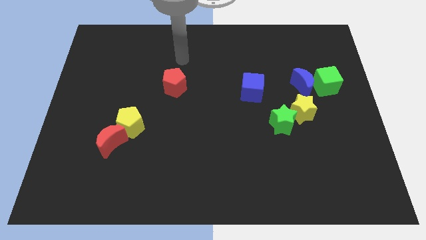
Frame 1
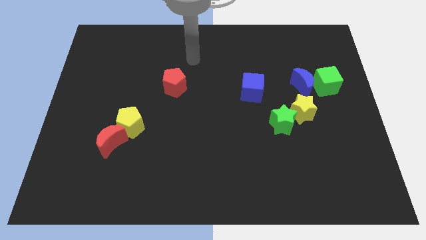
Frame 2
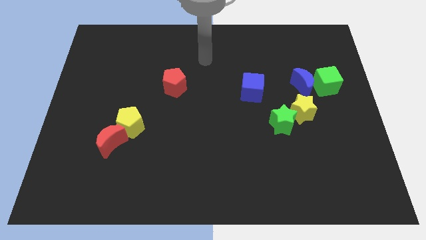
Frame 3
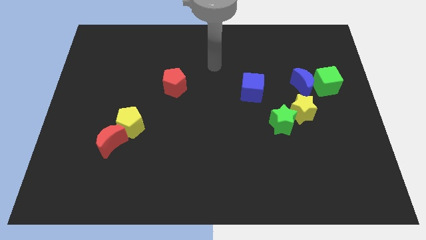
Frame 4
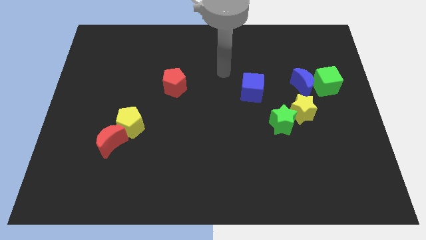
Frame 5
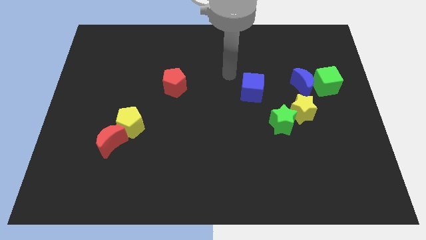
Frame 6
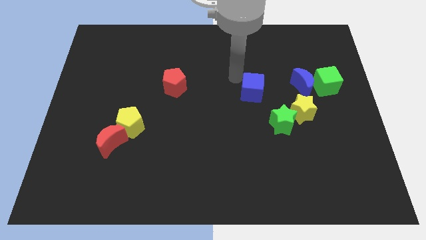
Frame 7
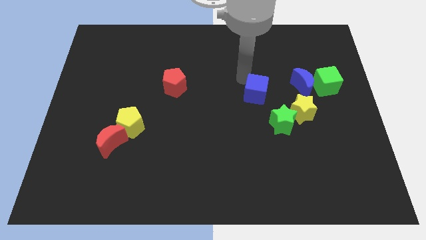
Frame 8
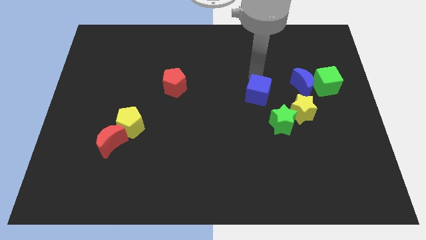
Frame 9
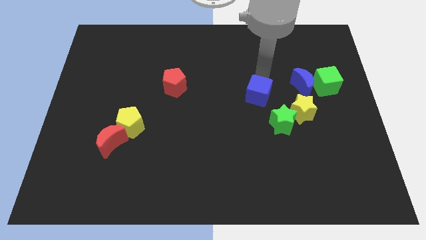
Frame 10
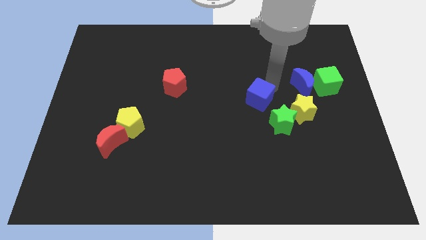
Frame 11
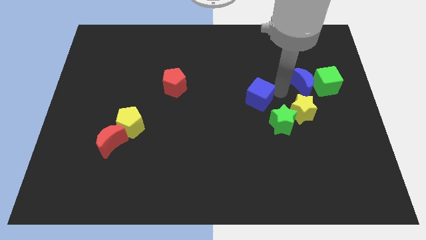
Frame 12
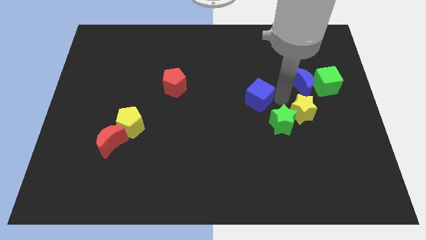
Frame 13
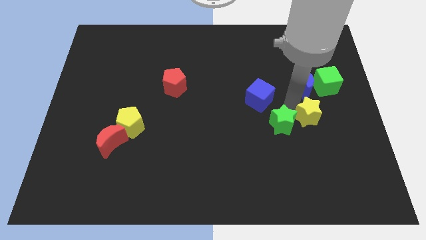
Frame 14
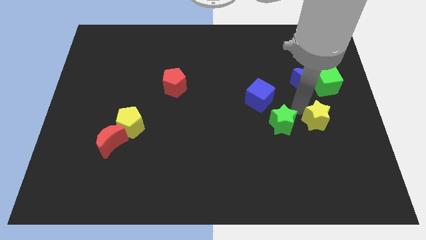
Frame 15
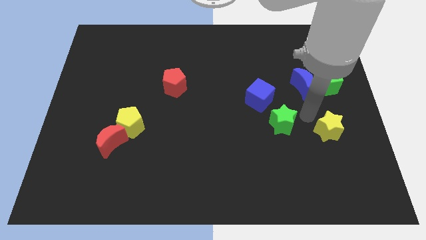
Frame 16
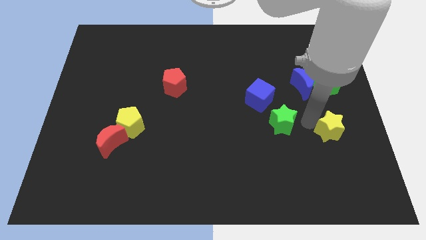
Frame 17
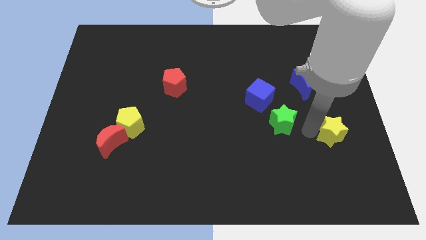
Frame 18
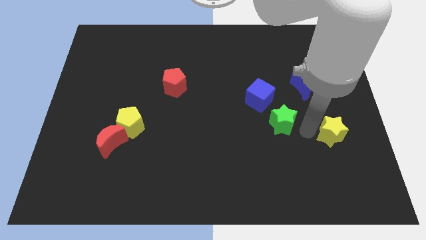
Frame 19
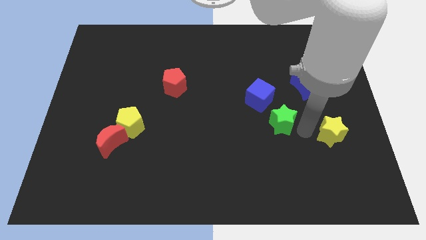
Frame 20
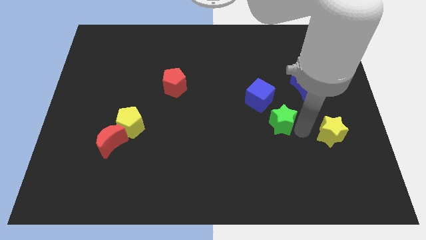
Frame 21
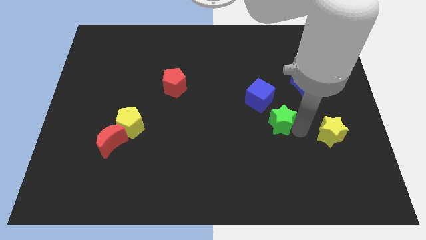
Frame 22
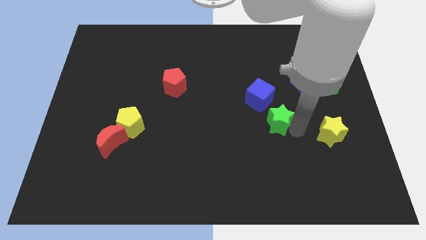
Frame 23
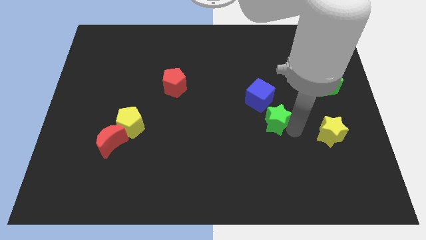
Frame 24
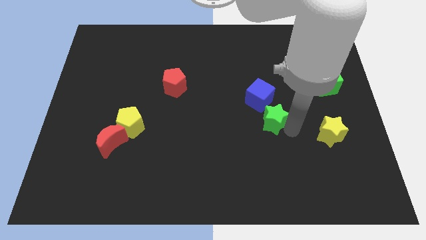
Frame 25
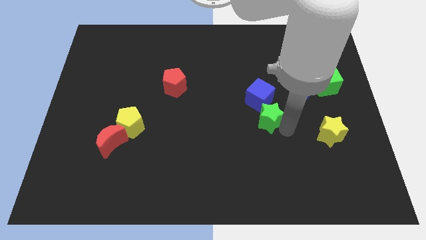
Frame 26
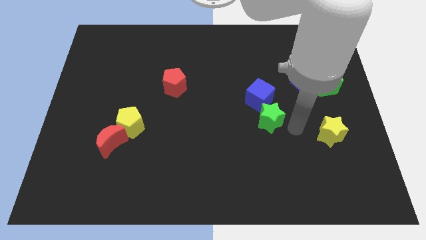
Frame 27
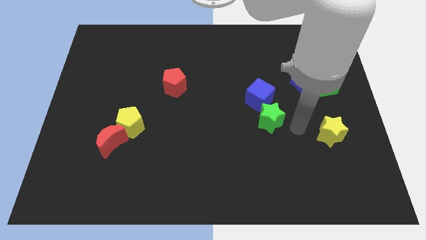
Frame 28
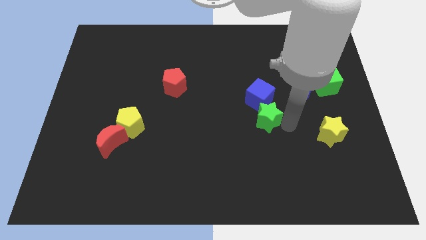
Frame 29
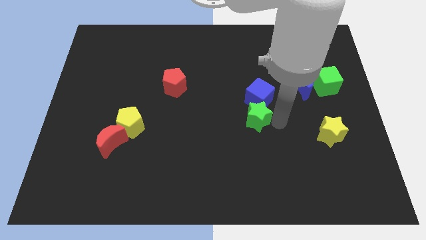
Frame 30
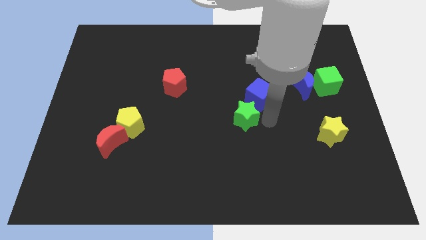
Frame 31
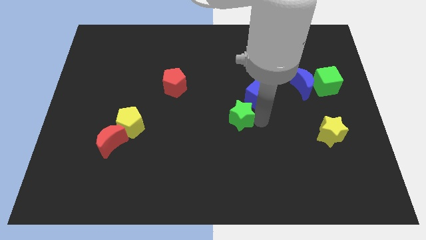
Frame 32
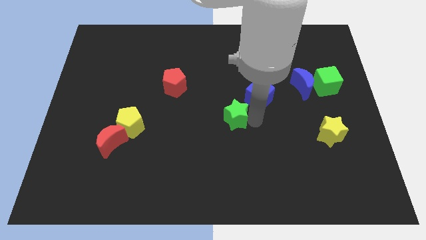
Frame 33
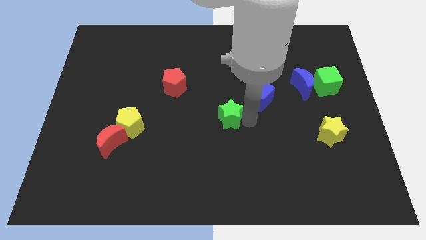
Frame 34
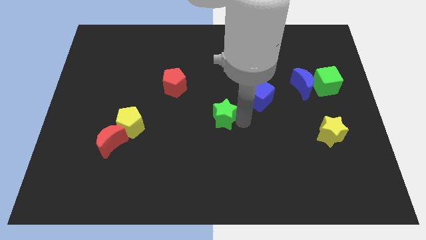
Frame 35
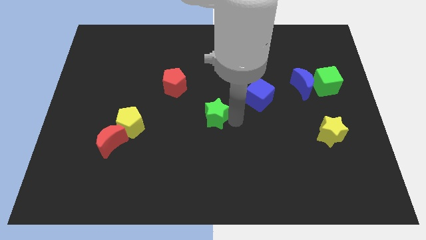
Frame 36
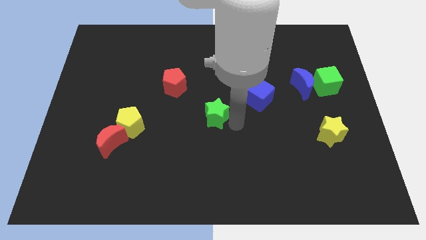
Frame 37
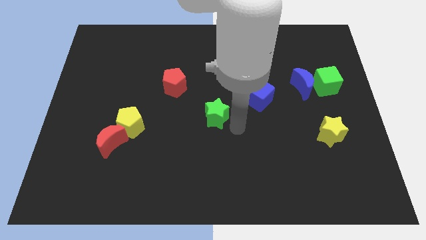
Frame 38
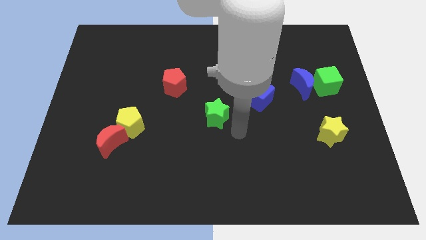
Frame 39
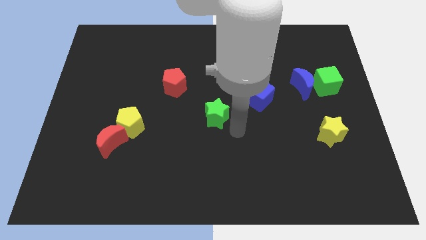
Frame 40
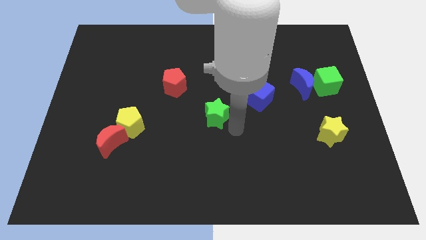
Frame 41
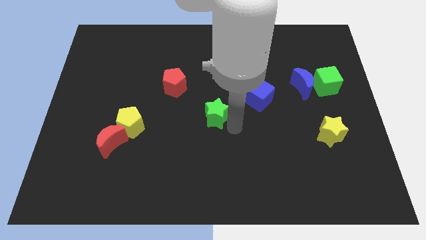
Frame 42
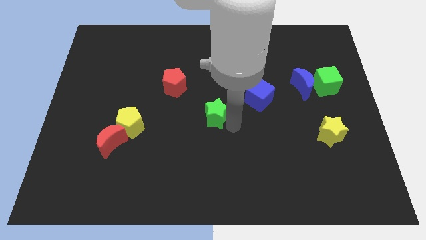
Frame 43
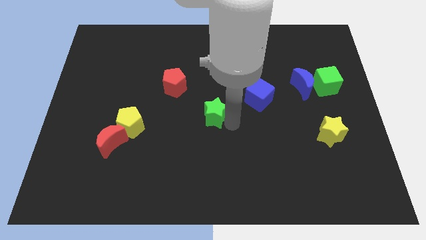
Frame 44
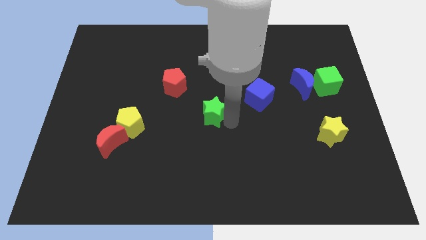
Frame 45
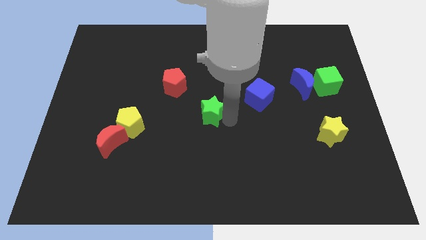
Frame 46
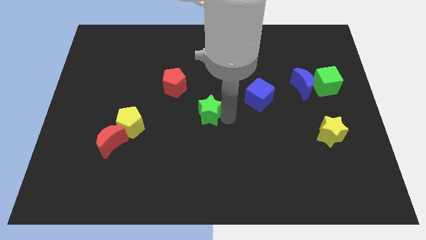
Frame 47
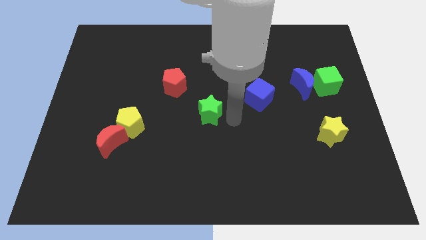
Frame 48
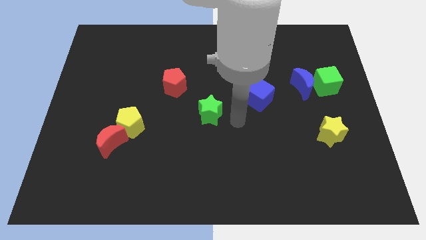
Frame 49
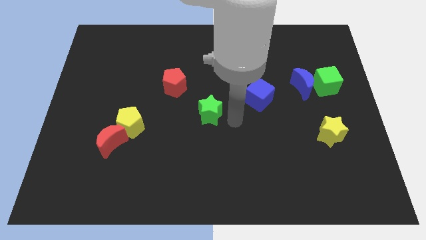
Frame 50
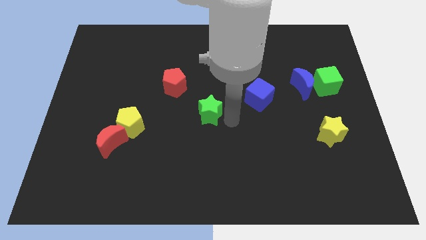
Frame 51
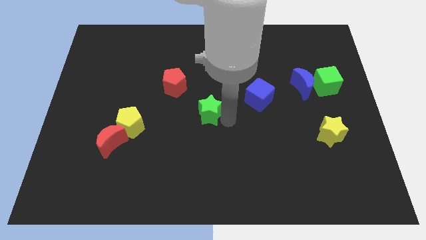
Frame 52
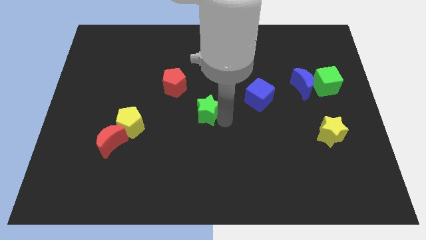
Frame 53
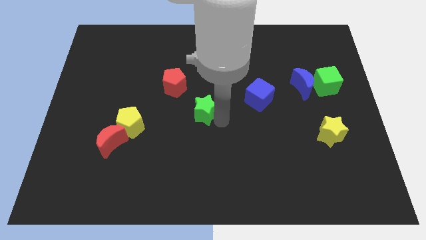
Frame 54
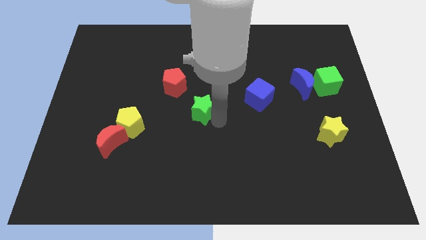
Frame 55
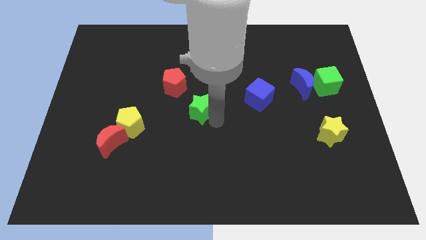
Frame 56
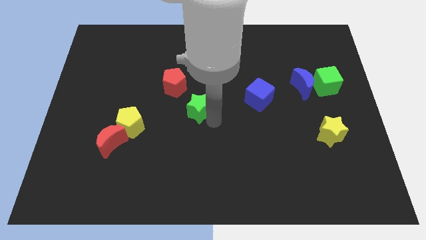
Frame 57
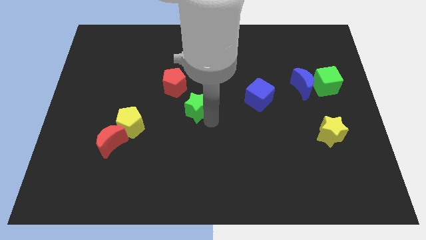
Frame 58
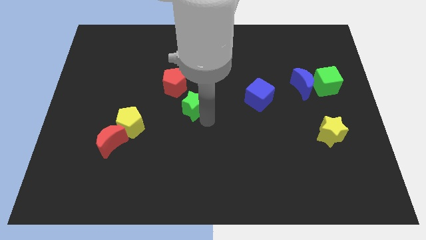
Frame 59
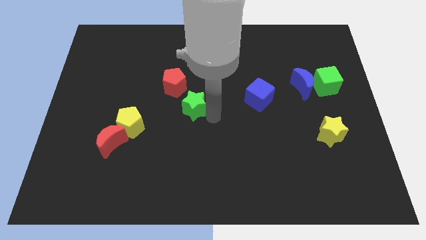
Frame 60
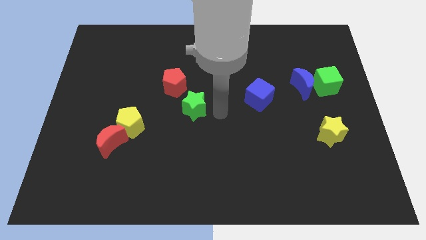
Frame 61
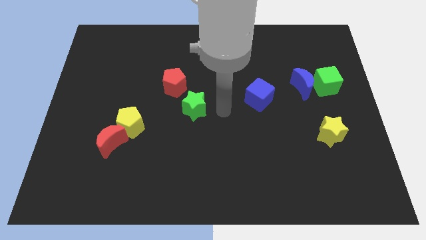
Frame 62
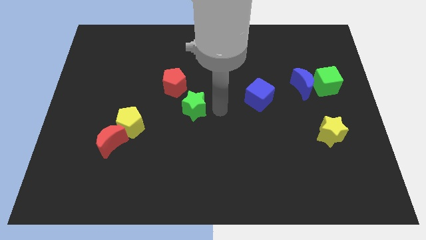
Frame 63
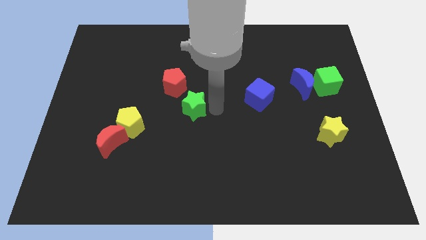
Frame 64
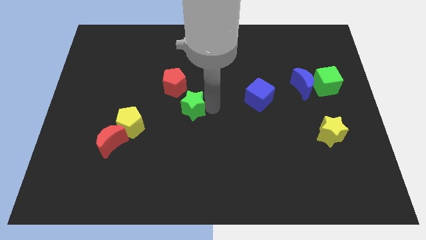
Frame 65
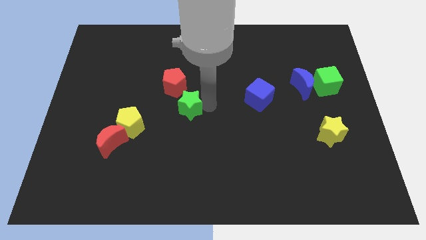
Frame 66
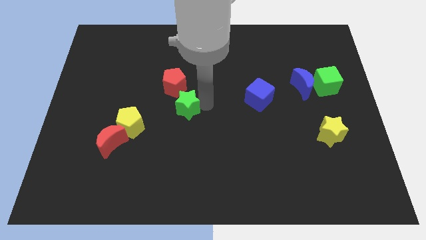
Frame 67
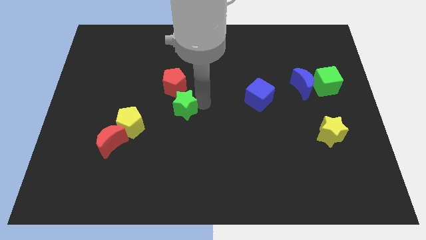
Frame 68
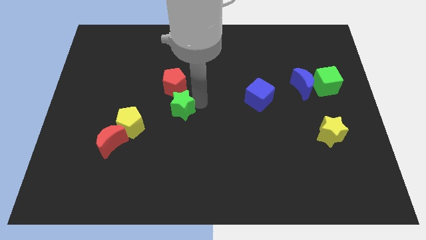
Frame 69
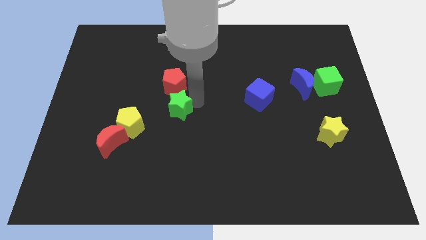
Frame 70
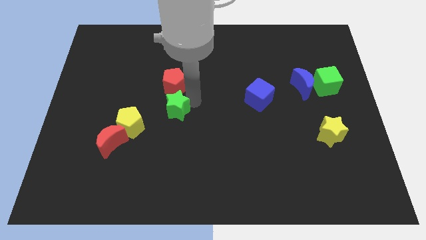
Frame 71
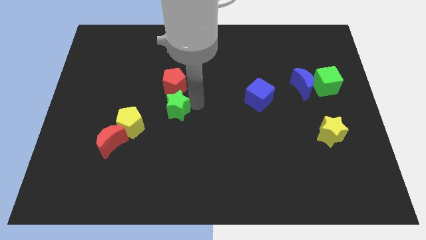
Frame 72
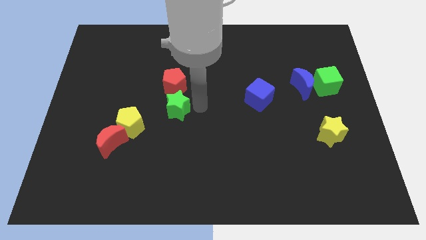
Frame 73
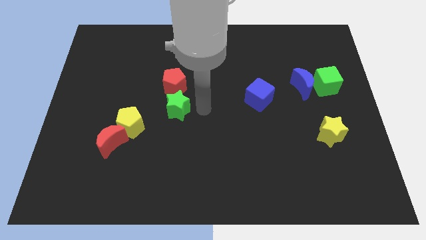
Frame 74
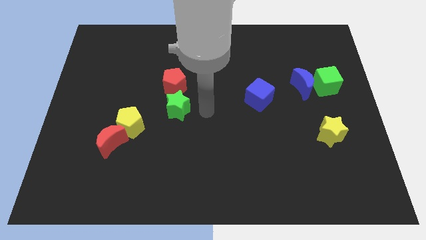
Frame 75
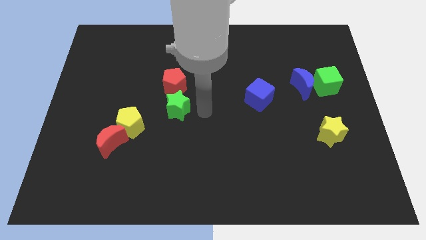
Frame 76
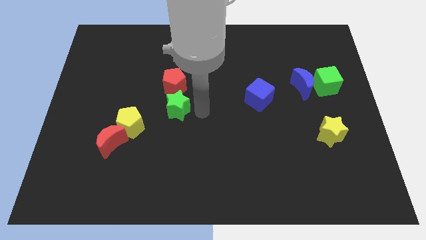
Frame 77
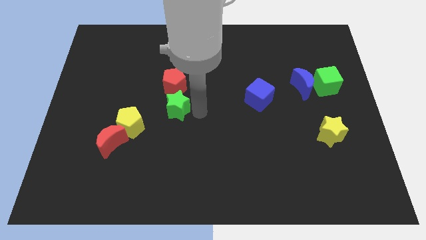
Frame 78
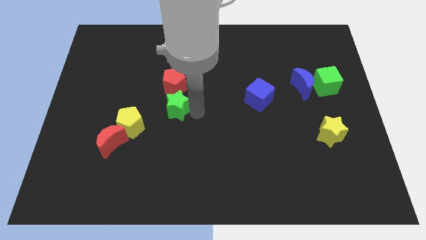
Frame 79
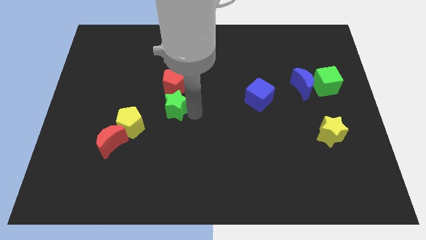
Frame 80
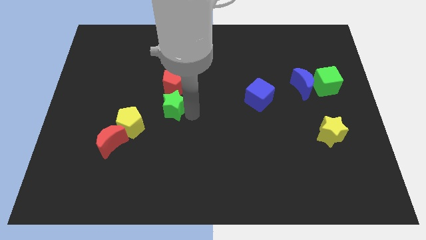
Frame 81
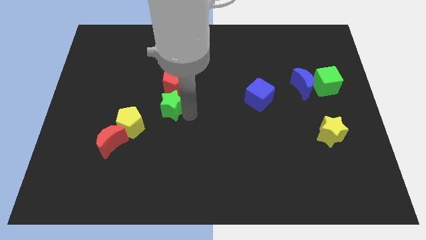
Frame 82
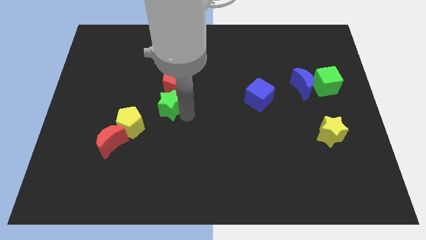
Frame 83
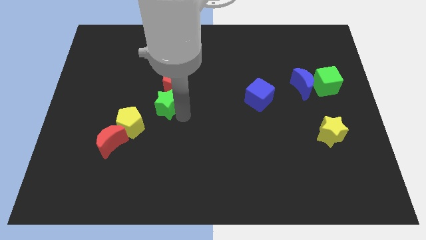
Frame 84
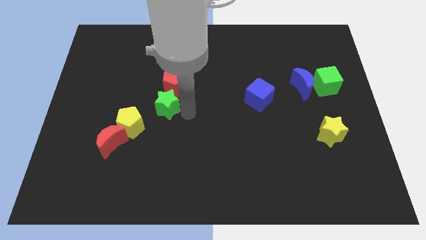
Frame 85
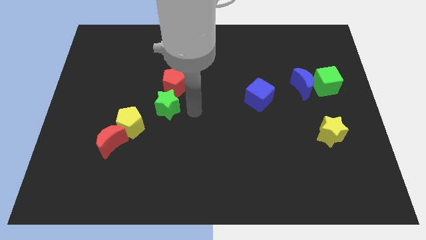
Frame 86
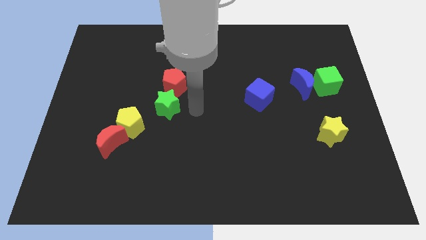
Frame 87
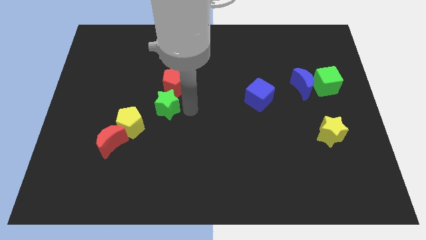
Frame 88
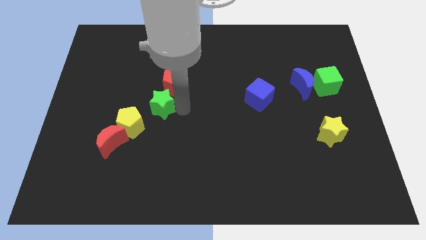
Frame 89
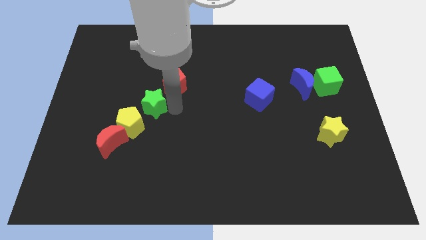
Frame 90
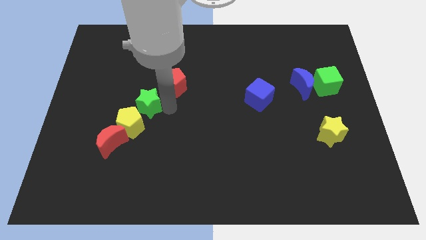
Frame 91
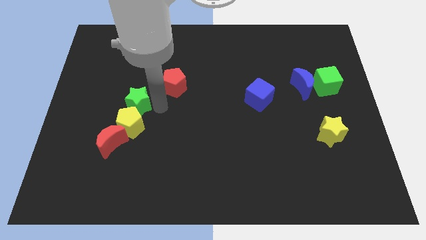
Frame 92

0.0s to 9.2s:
slide the green star to the top left of the yellow pentagon
